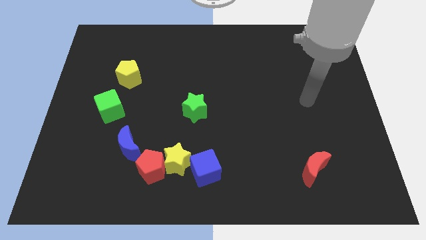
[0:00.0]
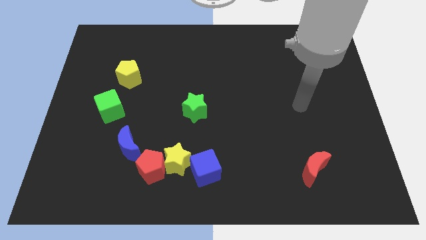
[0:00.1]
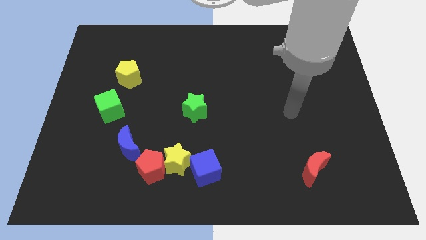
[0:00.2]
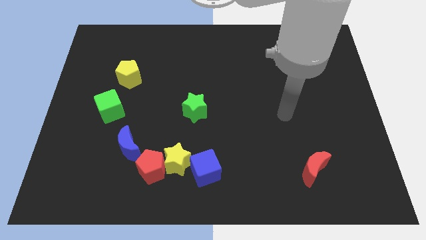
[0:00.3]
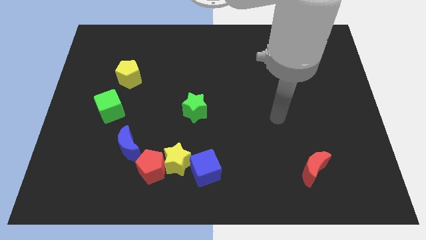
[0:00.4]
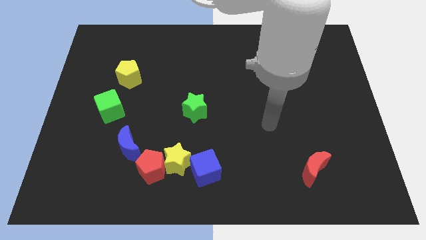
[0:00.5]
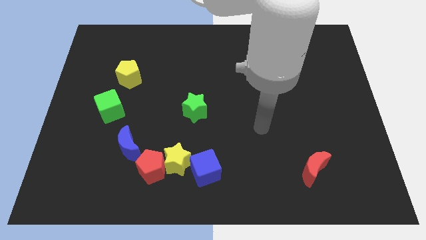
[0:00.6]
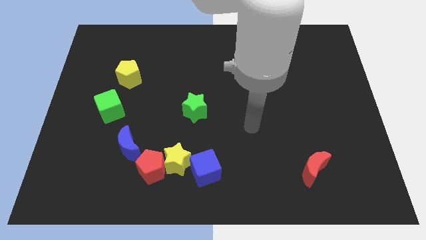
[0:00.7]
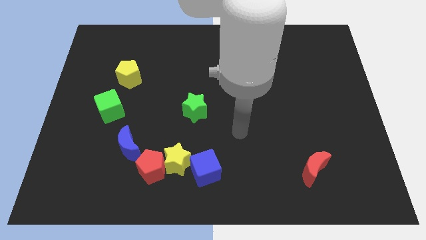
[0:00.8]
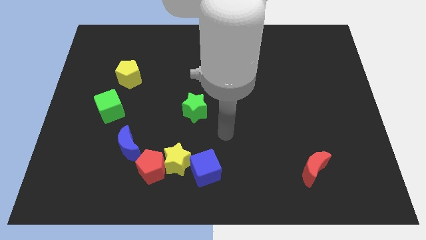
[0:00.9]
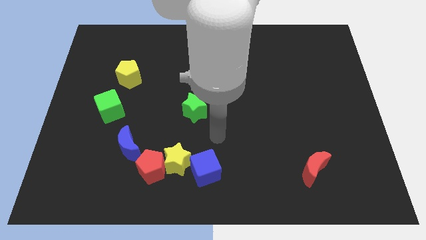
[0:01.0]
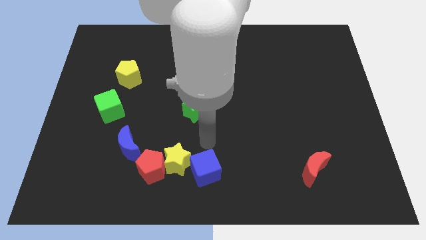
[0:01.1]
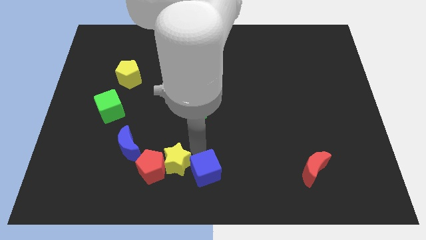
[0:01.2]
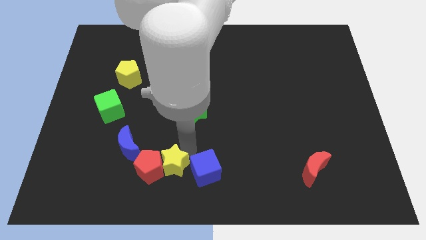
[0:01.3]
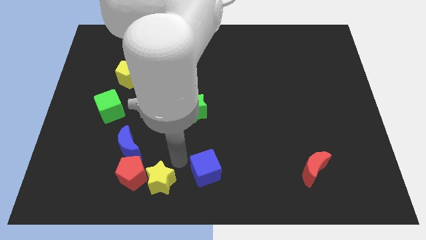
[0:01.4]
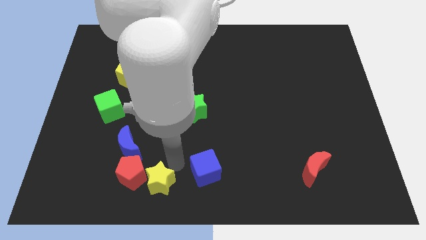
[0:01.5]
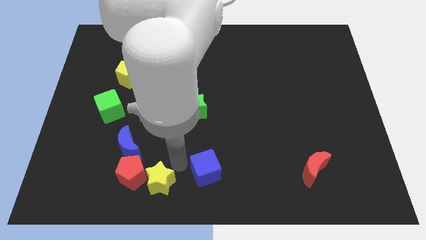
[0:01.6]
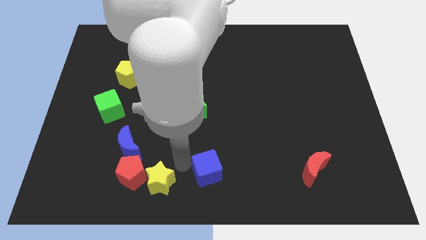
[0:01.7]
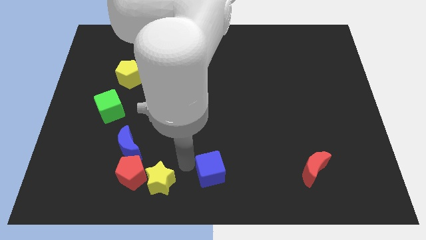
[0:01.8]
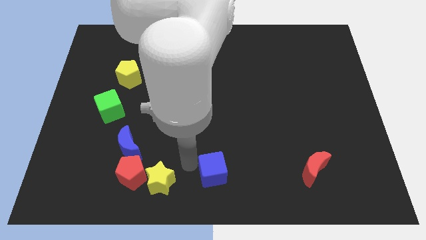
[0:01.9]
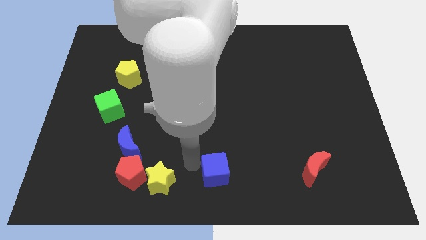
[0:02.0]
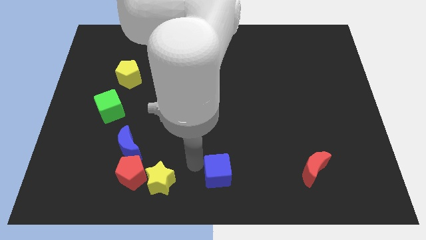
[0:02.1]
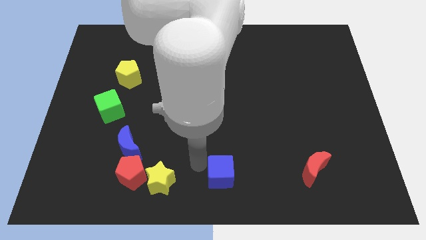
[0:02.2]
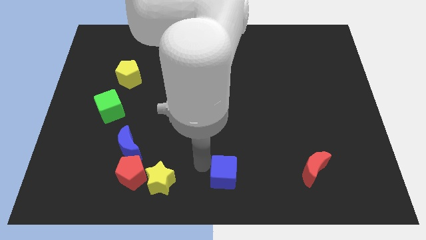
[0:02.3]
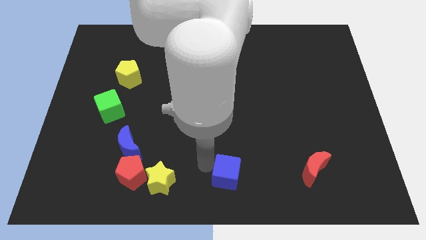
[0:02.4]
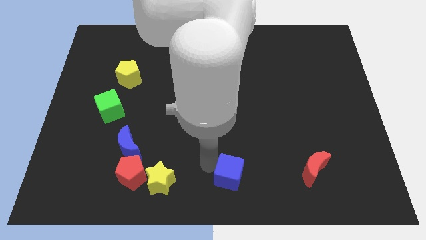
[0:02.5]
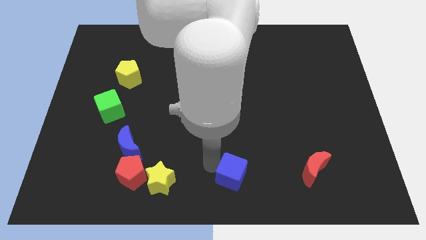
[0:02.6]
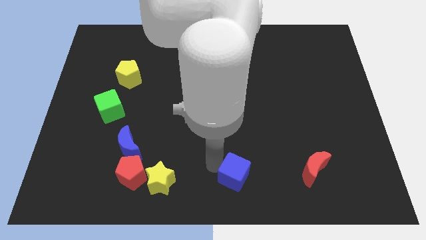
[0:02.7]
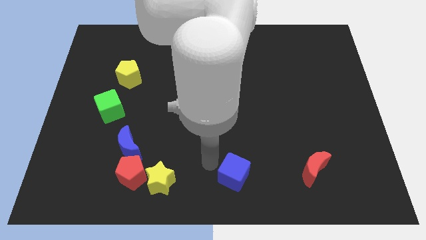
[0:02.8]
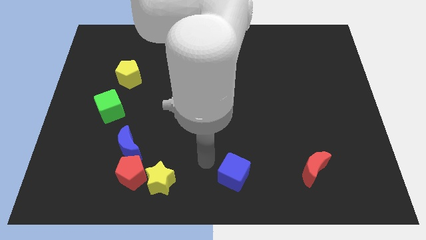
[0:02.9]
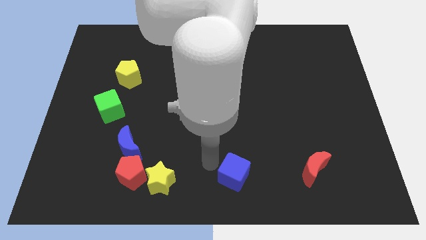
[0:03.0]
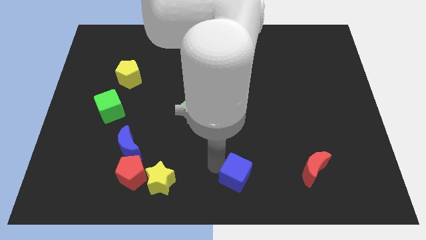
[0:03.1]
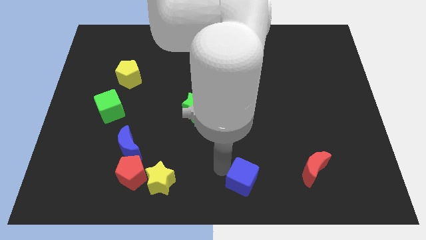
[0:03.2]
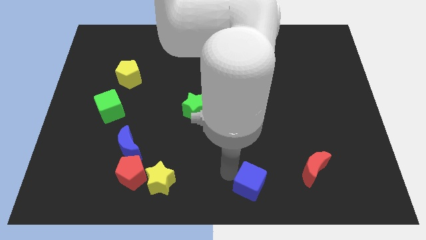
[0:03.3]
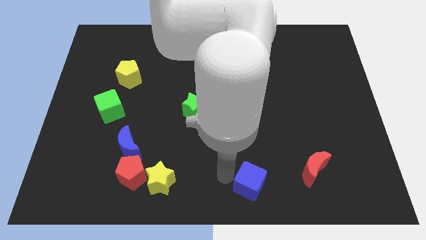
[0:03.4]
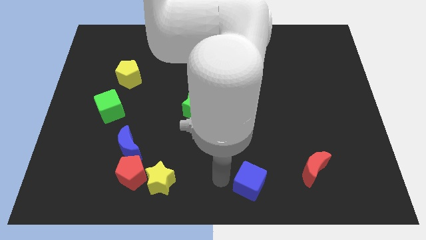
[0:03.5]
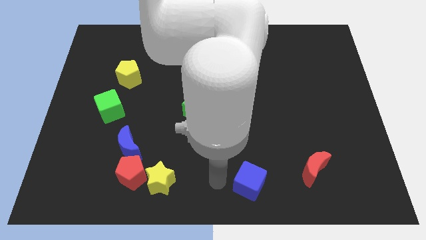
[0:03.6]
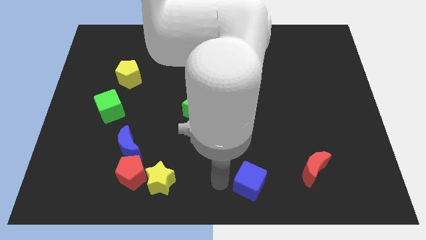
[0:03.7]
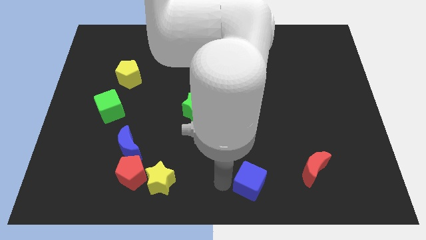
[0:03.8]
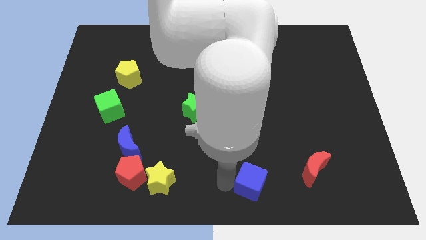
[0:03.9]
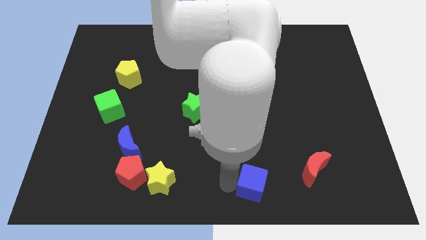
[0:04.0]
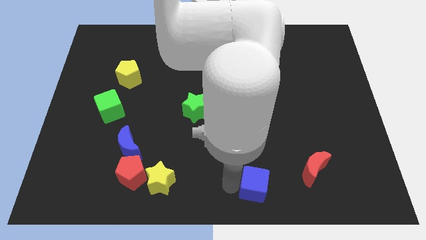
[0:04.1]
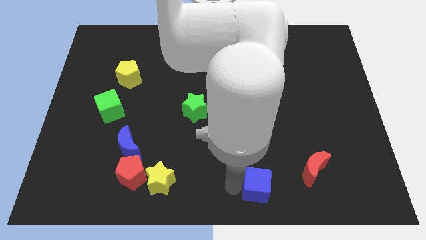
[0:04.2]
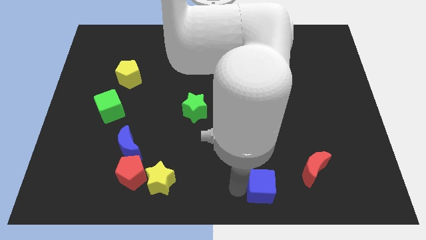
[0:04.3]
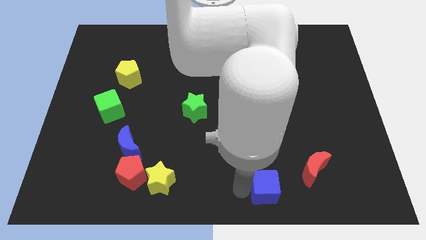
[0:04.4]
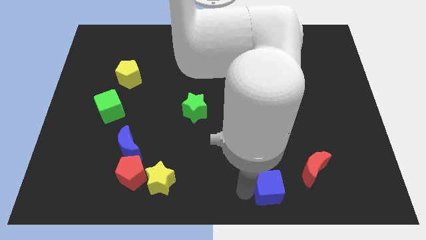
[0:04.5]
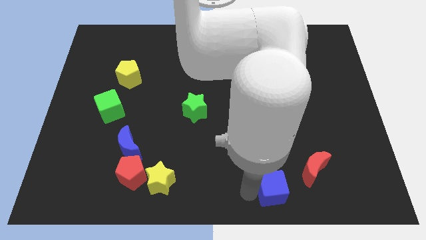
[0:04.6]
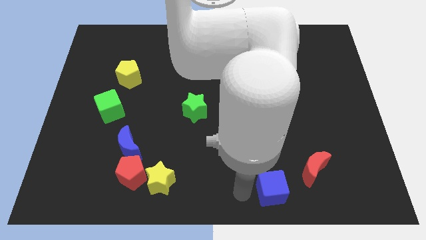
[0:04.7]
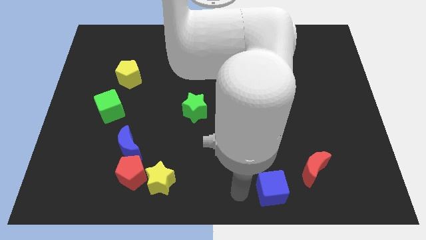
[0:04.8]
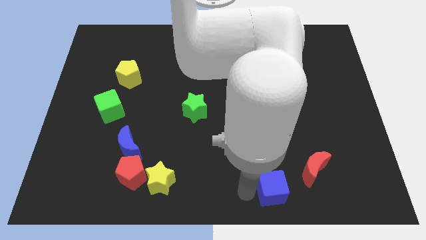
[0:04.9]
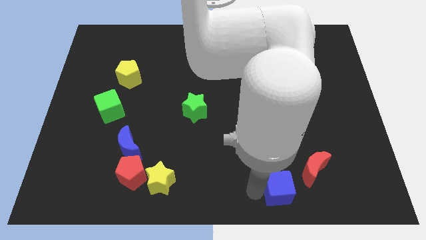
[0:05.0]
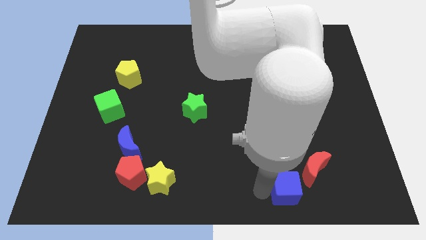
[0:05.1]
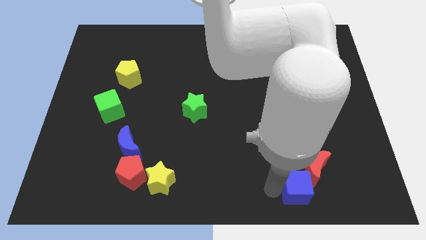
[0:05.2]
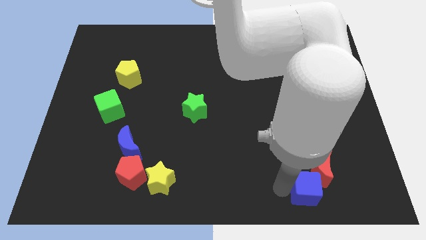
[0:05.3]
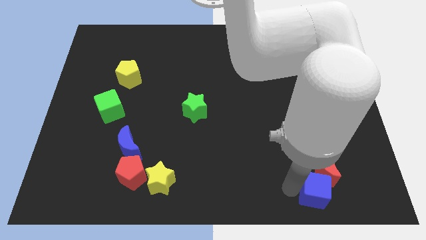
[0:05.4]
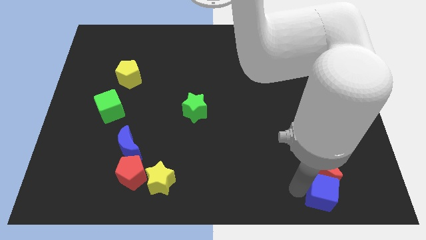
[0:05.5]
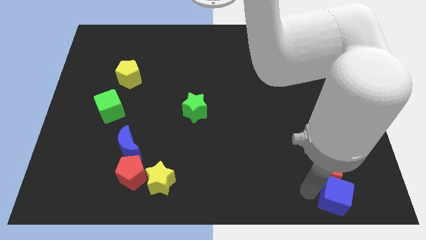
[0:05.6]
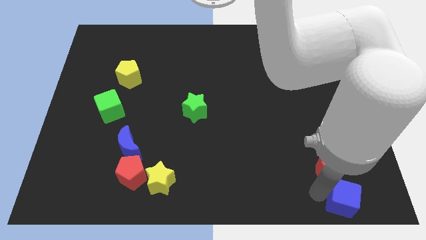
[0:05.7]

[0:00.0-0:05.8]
slide the blue cube to the bottom right corner

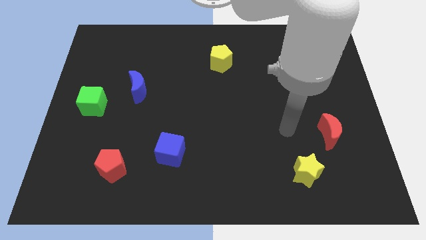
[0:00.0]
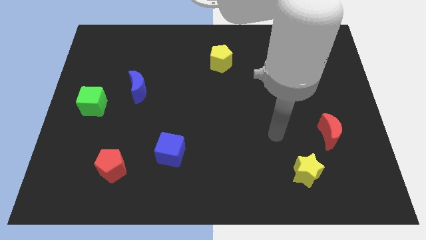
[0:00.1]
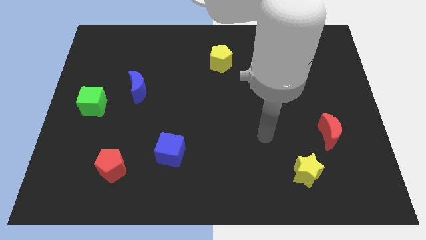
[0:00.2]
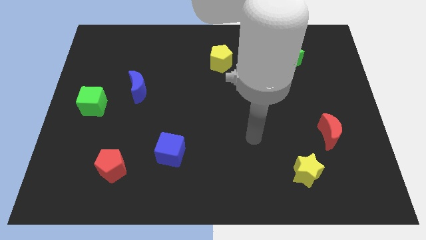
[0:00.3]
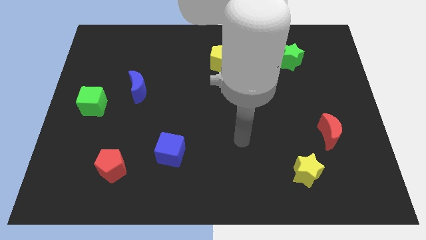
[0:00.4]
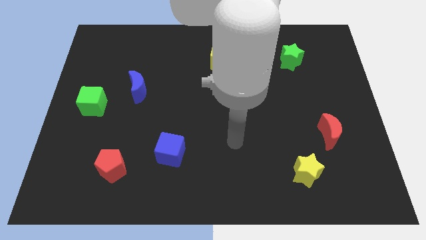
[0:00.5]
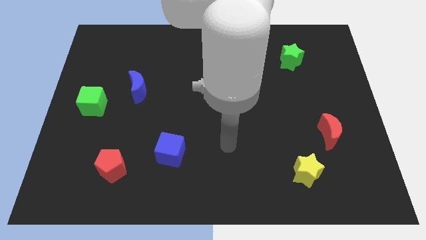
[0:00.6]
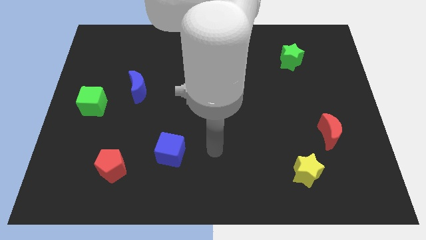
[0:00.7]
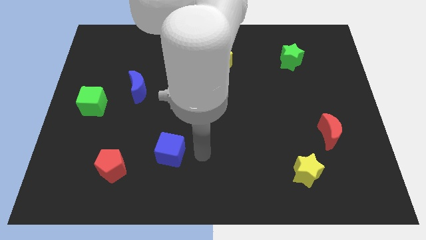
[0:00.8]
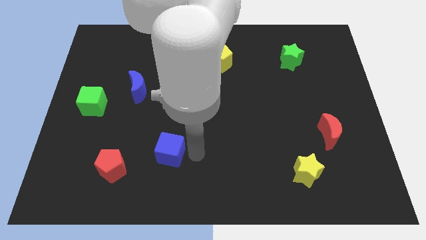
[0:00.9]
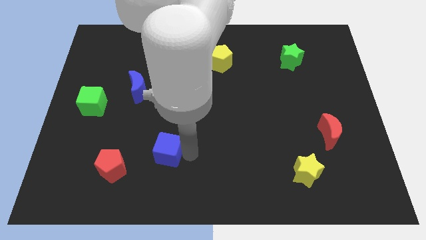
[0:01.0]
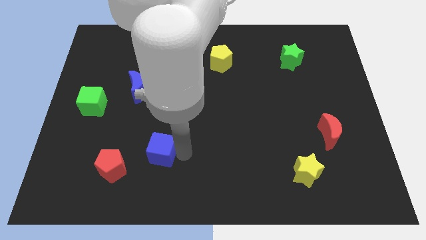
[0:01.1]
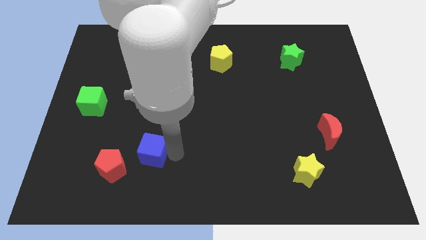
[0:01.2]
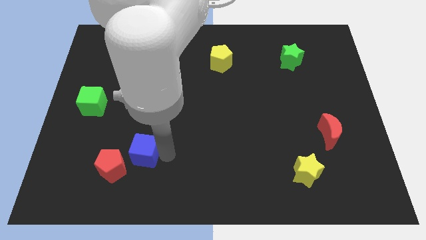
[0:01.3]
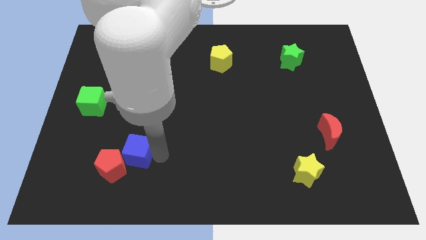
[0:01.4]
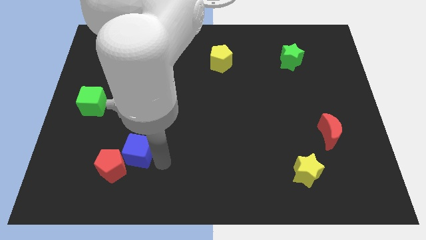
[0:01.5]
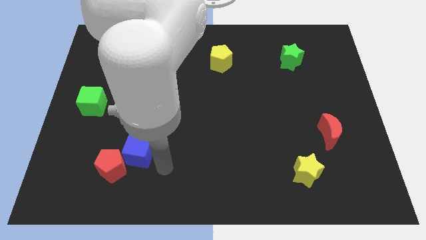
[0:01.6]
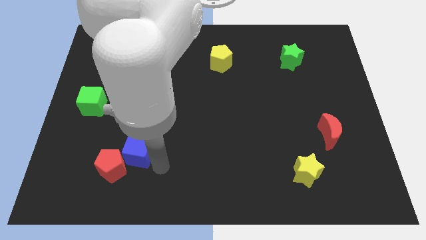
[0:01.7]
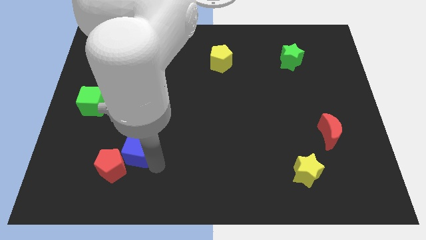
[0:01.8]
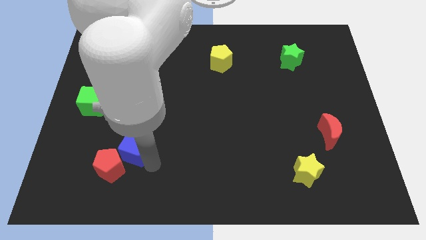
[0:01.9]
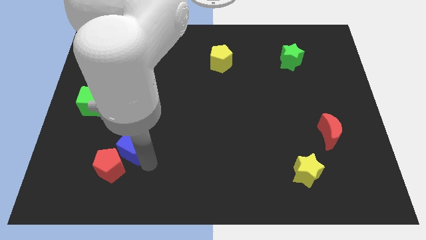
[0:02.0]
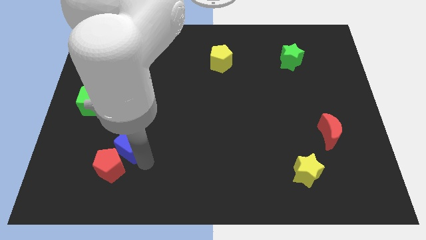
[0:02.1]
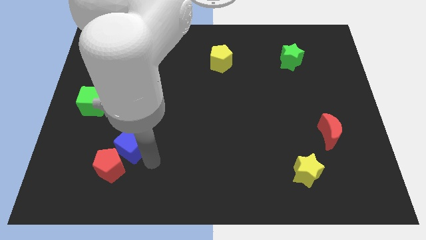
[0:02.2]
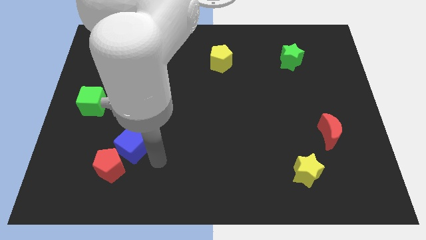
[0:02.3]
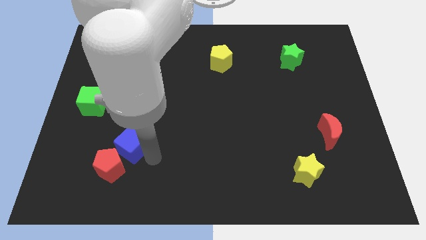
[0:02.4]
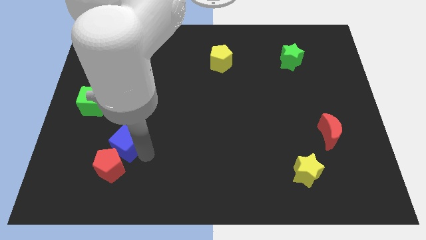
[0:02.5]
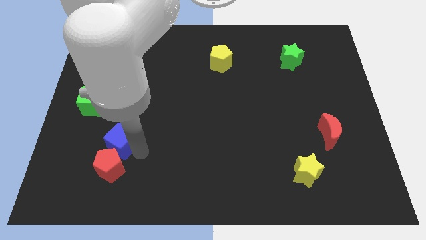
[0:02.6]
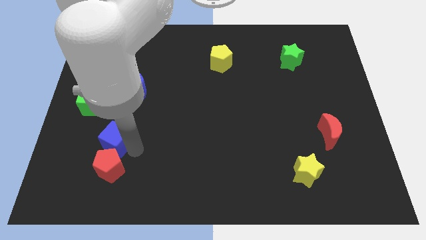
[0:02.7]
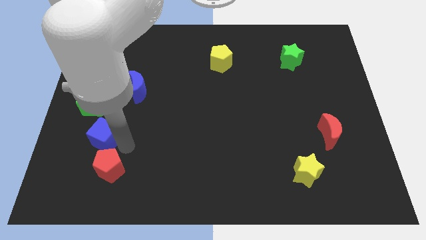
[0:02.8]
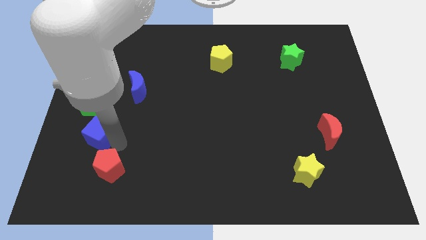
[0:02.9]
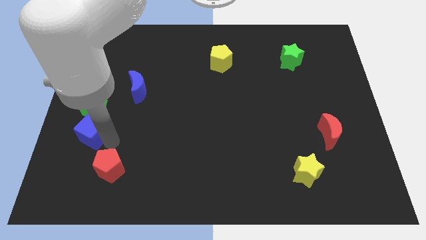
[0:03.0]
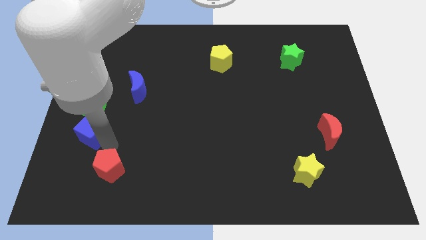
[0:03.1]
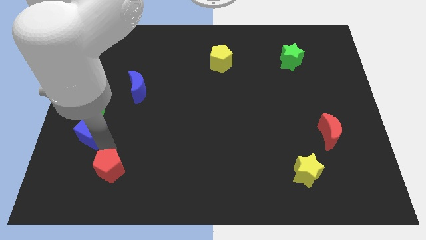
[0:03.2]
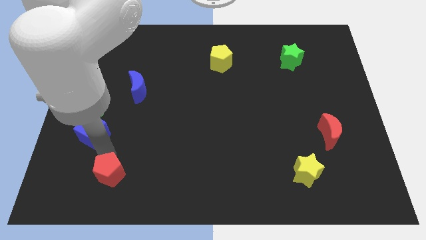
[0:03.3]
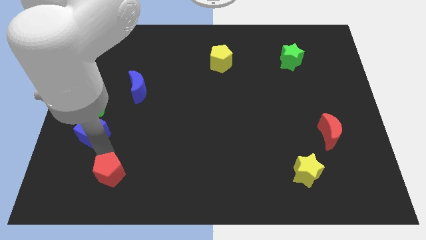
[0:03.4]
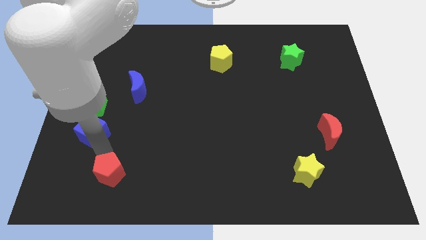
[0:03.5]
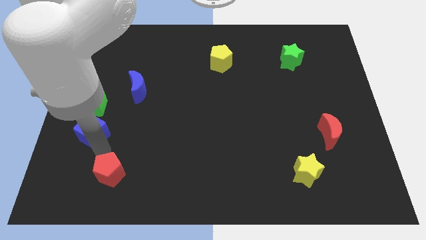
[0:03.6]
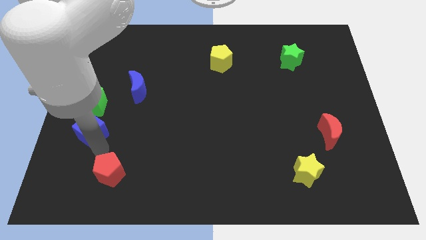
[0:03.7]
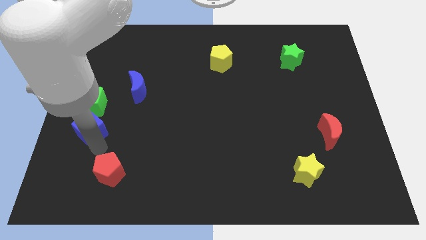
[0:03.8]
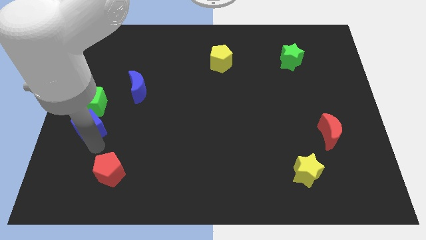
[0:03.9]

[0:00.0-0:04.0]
push the blue cube to the left side of the board
